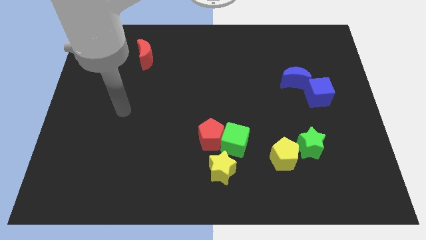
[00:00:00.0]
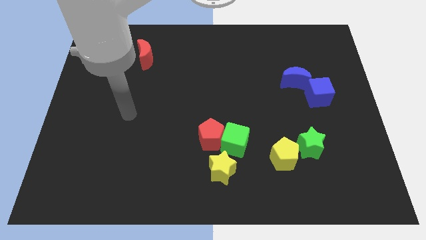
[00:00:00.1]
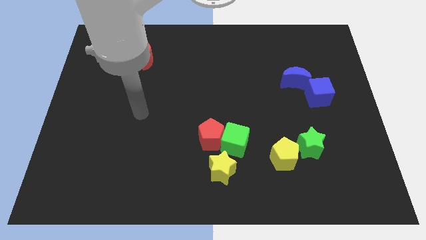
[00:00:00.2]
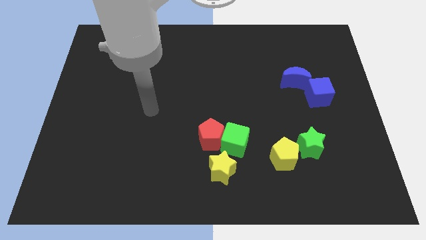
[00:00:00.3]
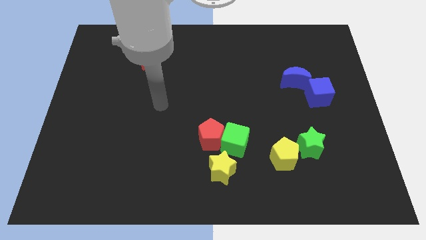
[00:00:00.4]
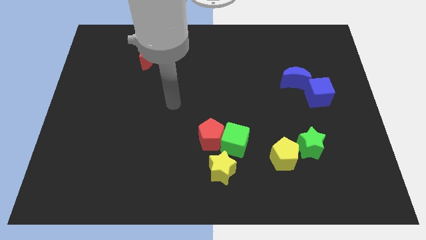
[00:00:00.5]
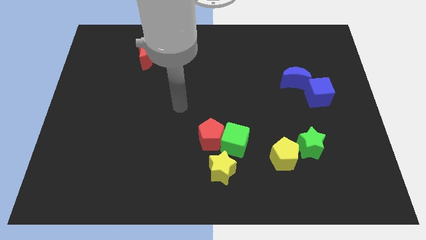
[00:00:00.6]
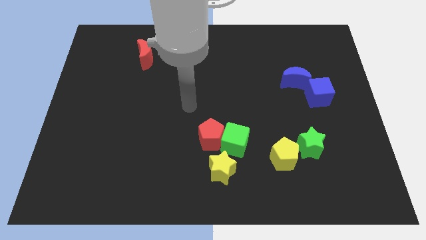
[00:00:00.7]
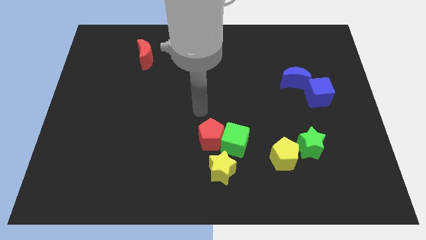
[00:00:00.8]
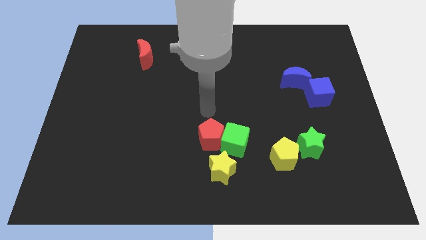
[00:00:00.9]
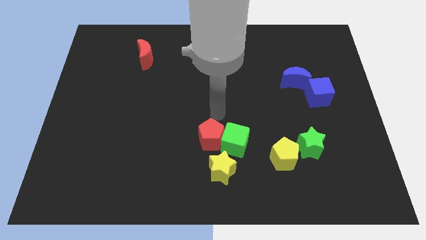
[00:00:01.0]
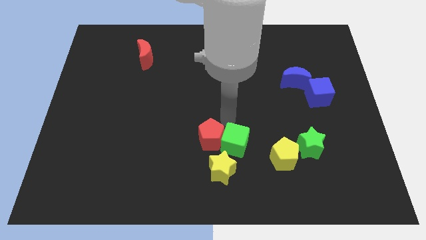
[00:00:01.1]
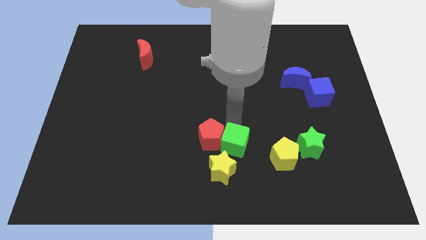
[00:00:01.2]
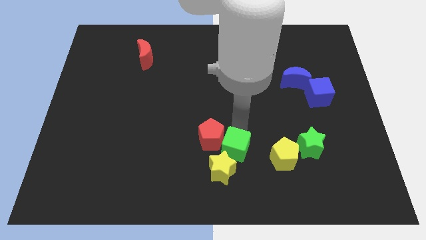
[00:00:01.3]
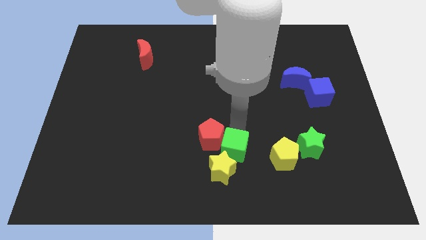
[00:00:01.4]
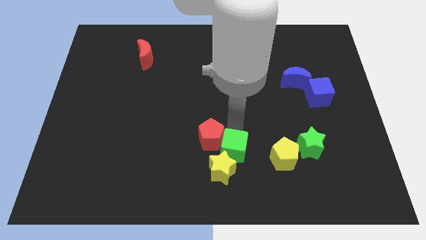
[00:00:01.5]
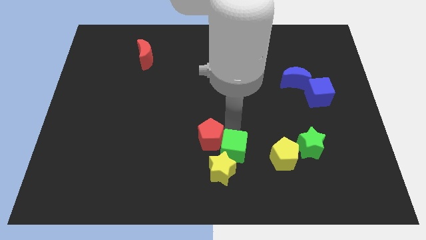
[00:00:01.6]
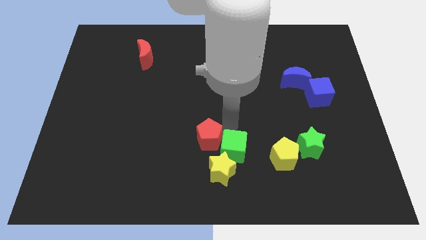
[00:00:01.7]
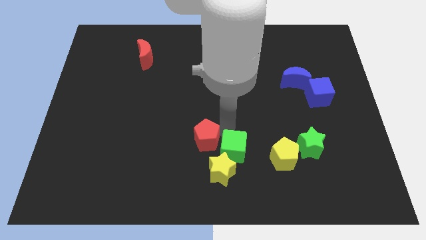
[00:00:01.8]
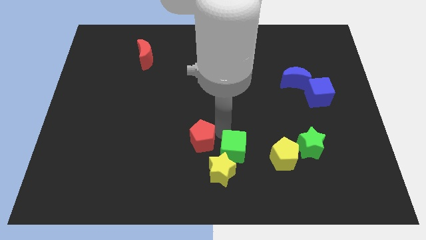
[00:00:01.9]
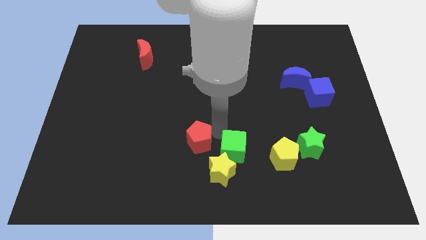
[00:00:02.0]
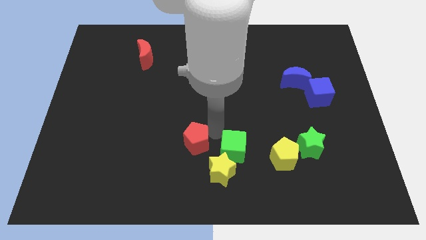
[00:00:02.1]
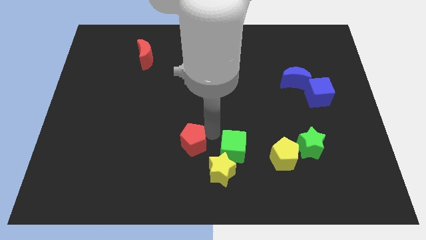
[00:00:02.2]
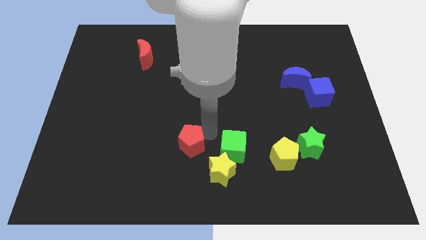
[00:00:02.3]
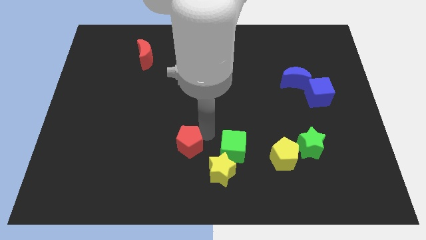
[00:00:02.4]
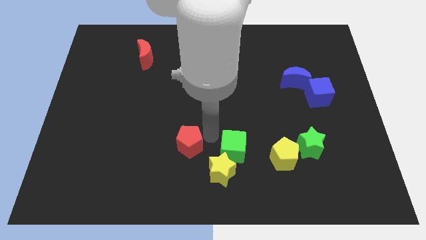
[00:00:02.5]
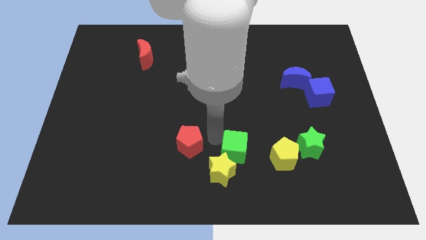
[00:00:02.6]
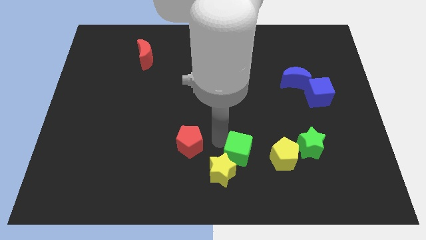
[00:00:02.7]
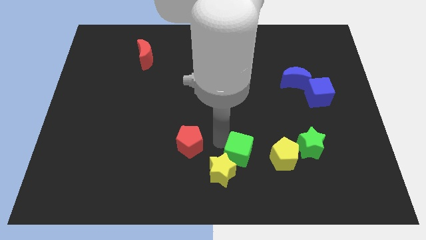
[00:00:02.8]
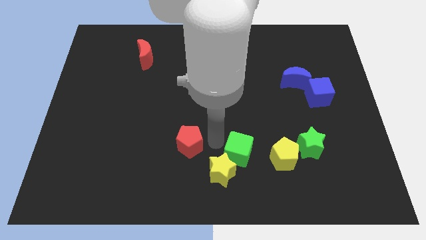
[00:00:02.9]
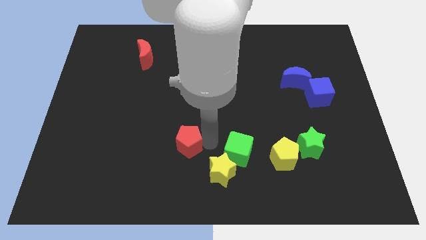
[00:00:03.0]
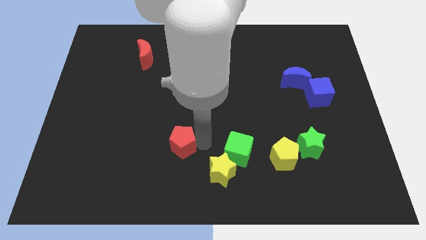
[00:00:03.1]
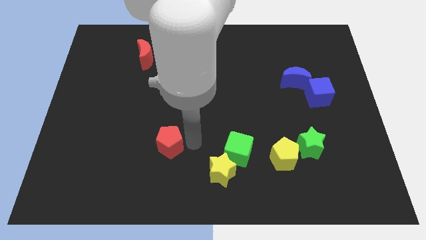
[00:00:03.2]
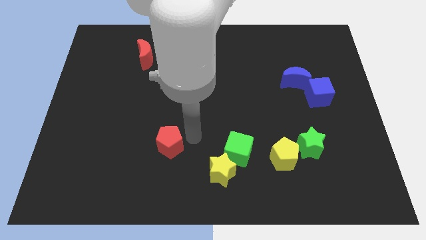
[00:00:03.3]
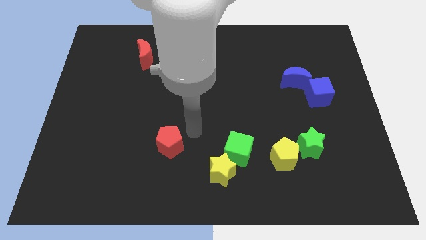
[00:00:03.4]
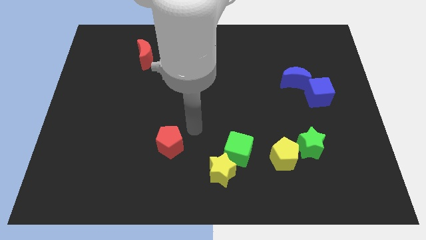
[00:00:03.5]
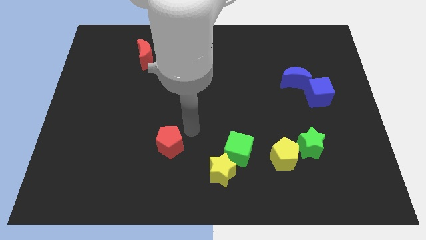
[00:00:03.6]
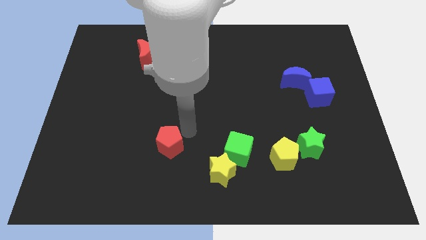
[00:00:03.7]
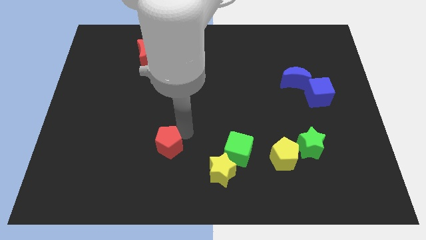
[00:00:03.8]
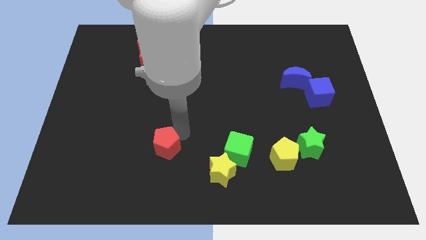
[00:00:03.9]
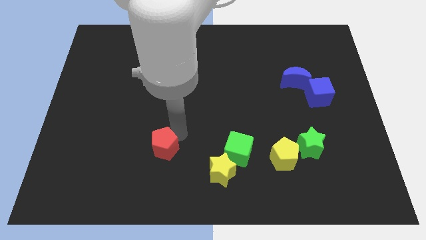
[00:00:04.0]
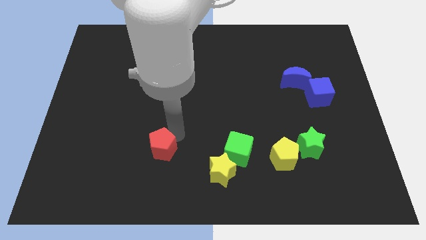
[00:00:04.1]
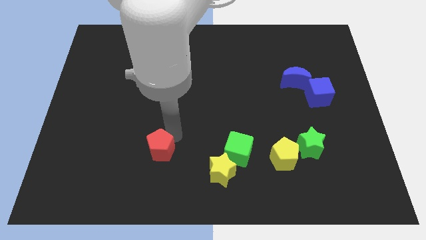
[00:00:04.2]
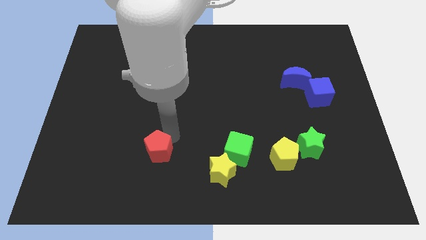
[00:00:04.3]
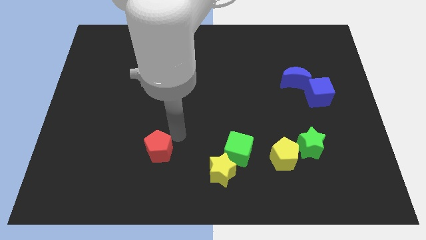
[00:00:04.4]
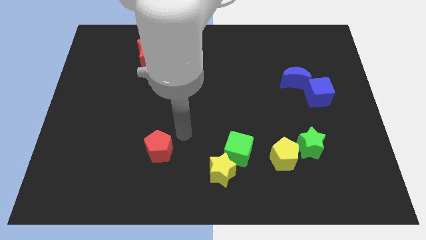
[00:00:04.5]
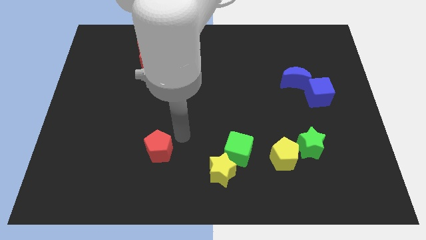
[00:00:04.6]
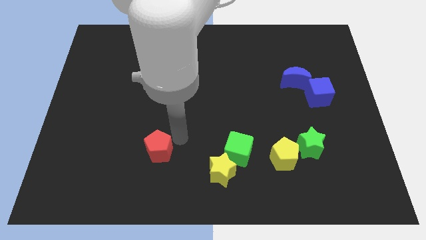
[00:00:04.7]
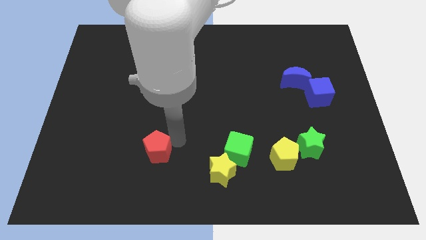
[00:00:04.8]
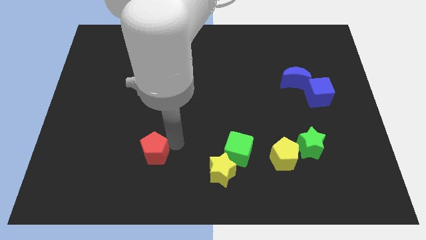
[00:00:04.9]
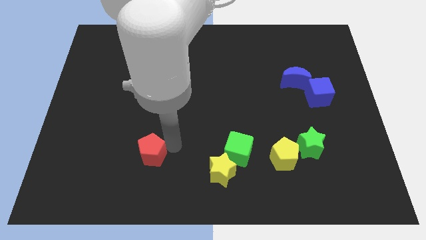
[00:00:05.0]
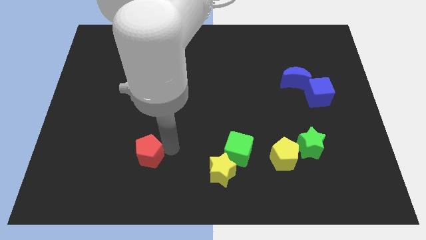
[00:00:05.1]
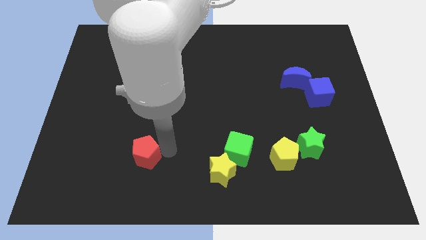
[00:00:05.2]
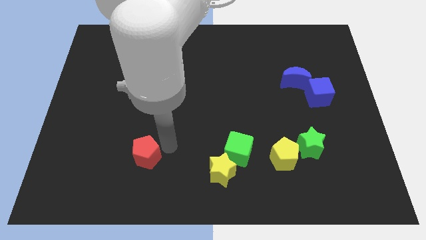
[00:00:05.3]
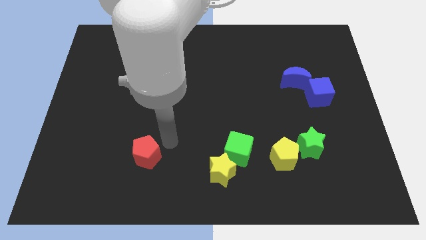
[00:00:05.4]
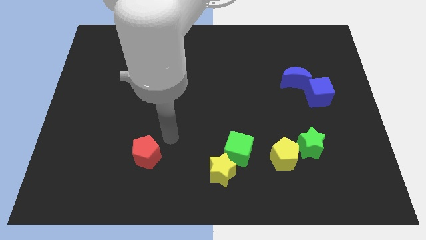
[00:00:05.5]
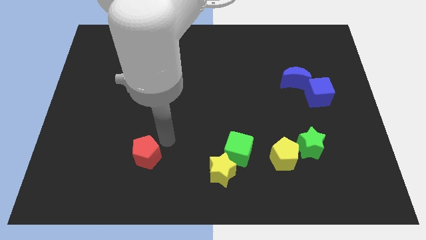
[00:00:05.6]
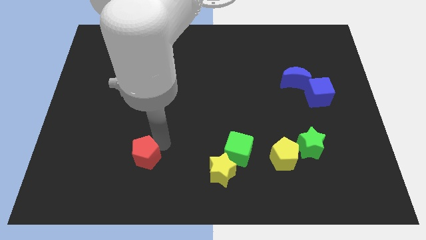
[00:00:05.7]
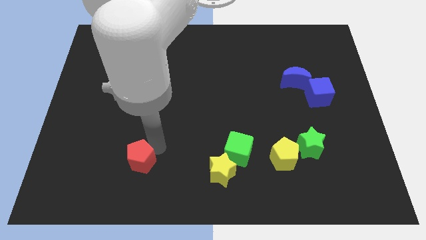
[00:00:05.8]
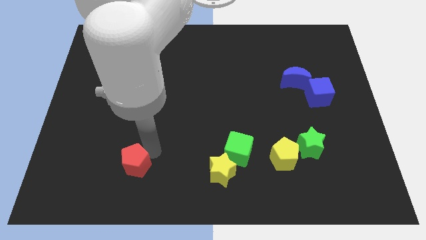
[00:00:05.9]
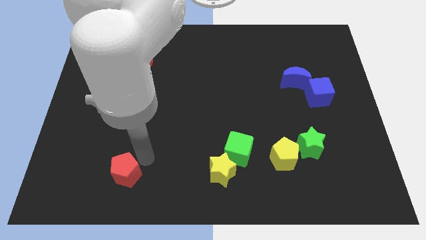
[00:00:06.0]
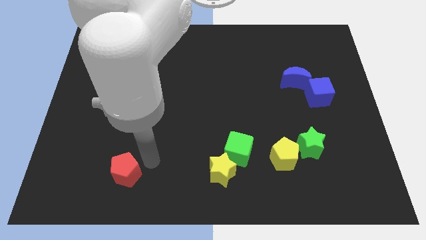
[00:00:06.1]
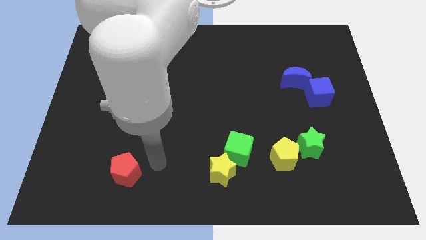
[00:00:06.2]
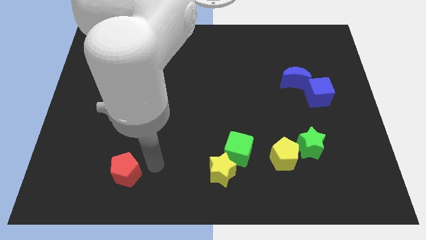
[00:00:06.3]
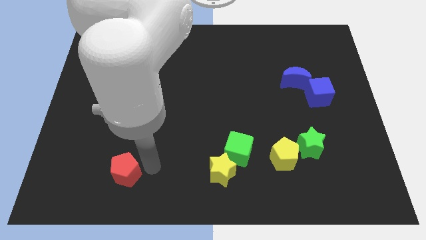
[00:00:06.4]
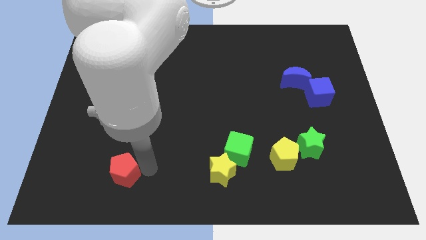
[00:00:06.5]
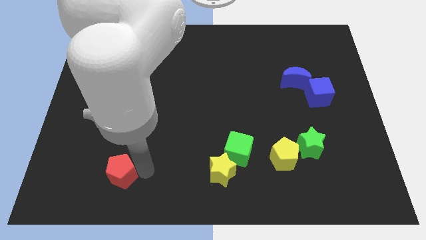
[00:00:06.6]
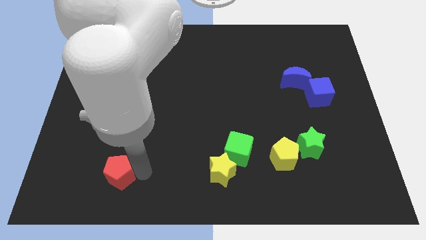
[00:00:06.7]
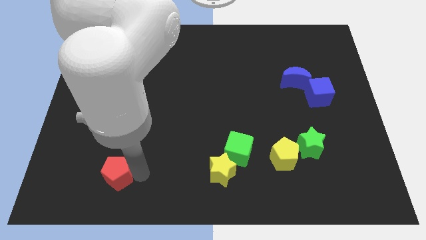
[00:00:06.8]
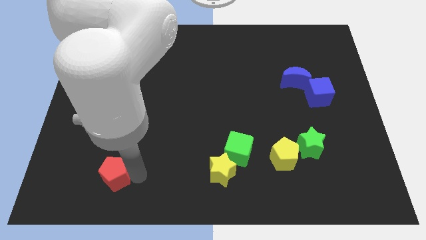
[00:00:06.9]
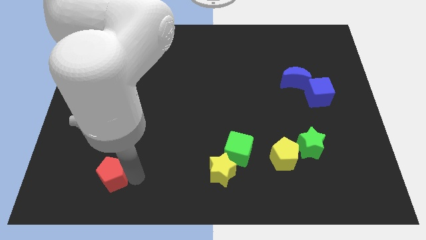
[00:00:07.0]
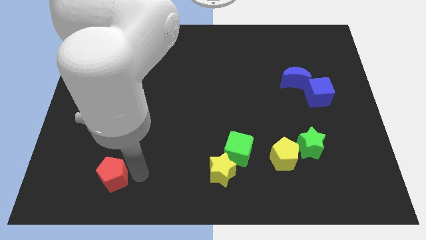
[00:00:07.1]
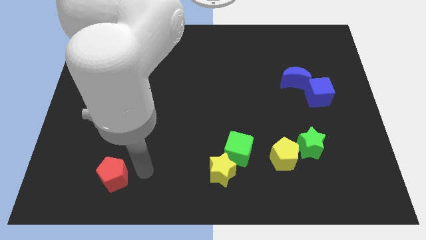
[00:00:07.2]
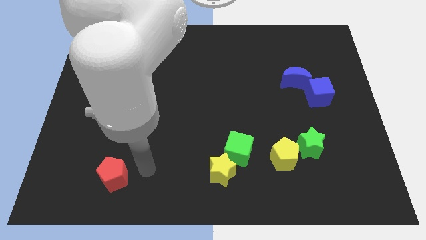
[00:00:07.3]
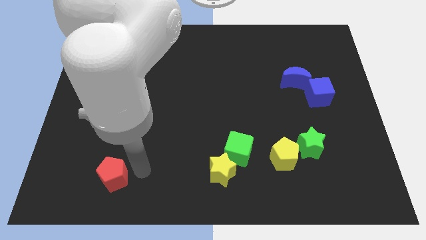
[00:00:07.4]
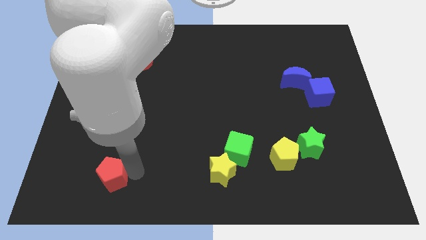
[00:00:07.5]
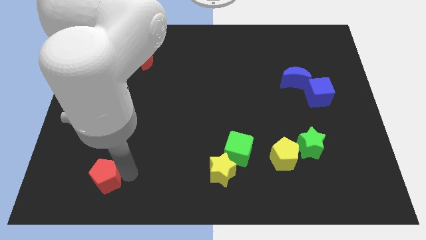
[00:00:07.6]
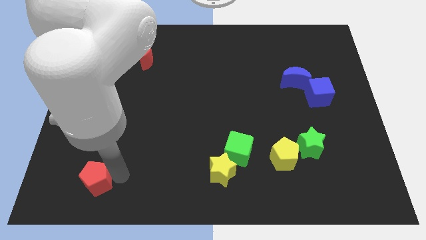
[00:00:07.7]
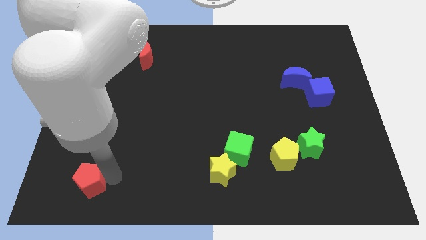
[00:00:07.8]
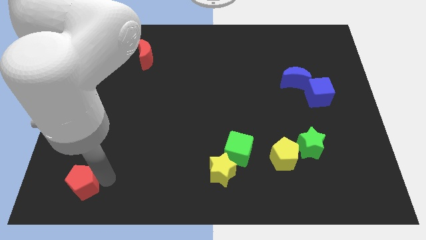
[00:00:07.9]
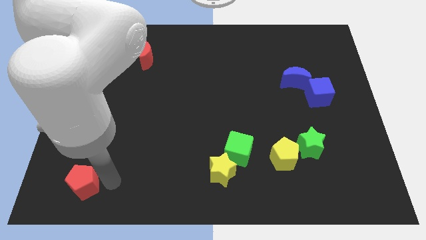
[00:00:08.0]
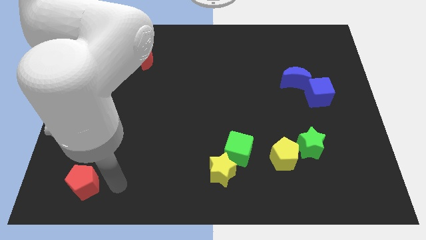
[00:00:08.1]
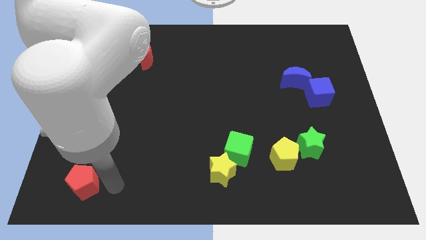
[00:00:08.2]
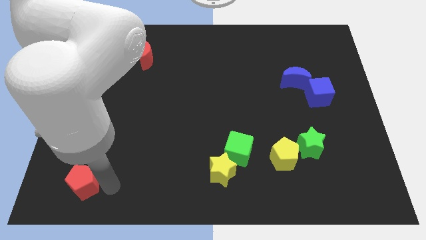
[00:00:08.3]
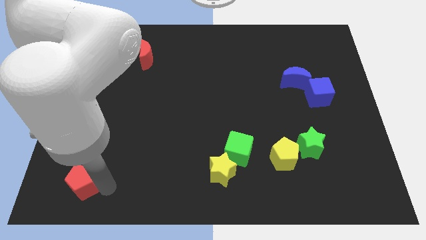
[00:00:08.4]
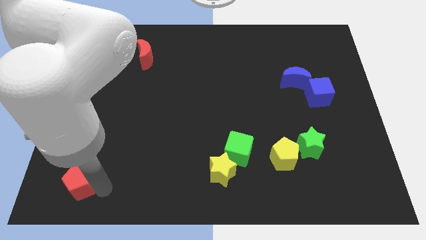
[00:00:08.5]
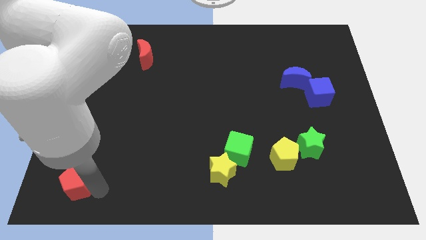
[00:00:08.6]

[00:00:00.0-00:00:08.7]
push the red pentagon to the bottom left
